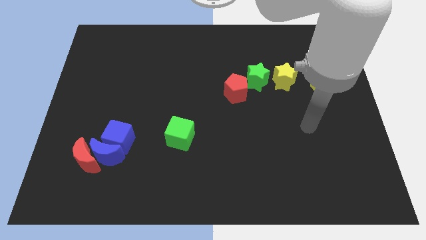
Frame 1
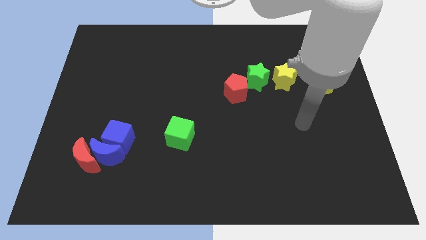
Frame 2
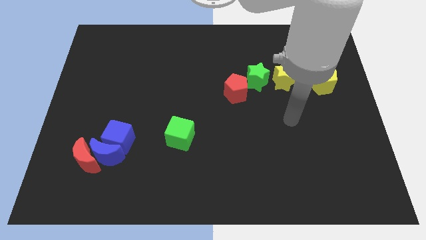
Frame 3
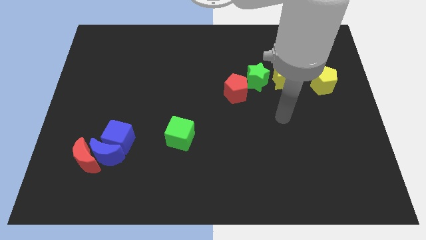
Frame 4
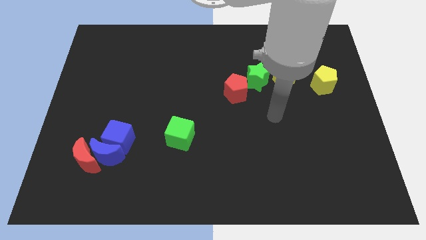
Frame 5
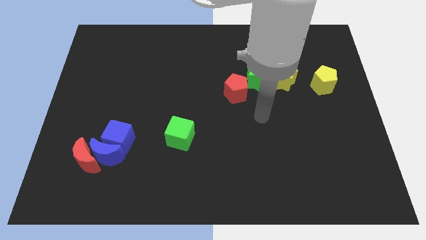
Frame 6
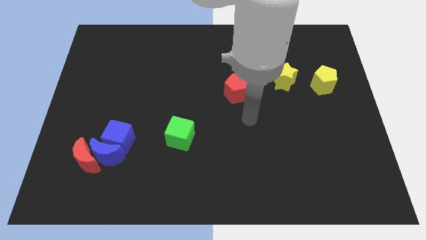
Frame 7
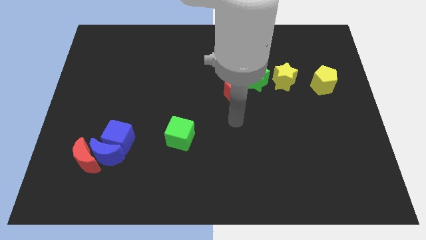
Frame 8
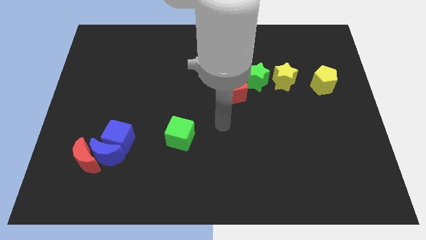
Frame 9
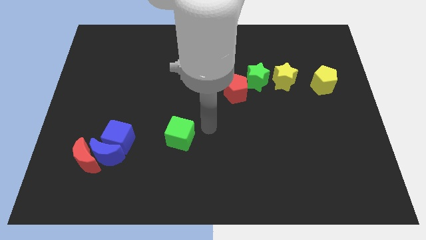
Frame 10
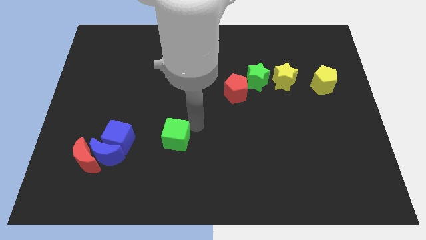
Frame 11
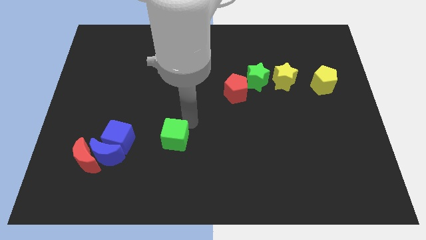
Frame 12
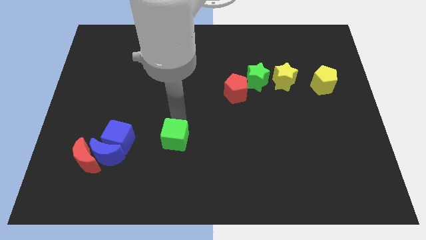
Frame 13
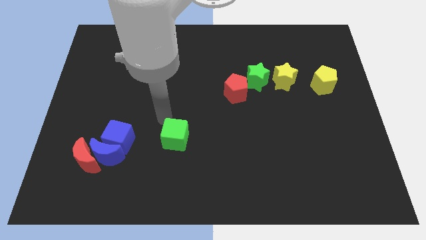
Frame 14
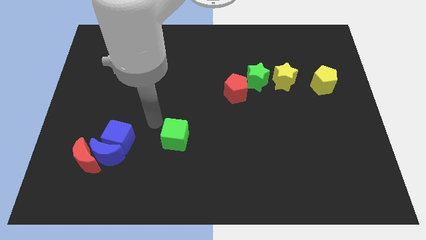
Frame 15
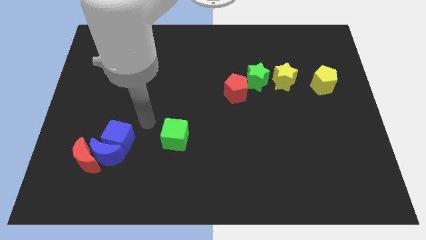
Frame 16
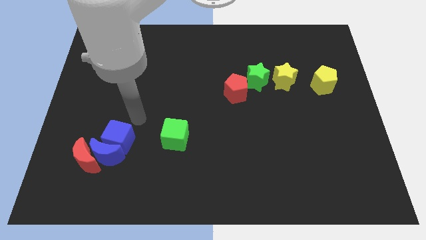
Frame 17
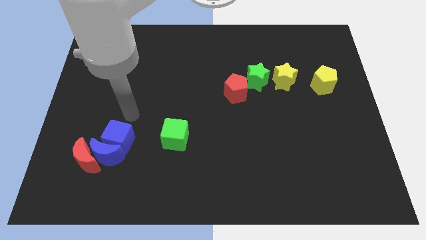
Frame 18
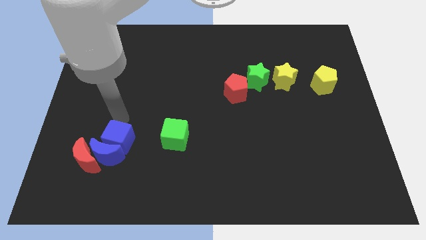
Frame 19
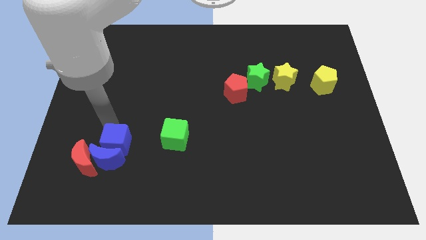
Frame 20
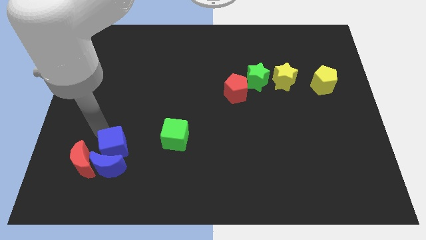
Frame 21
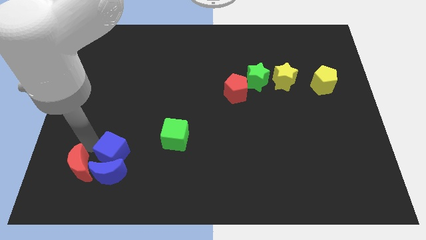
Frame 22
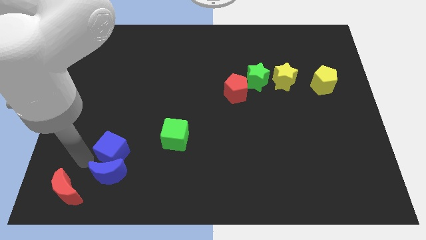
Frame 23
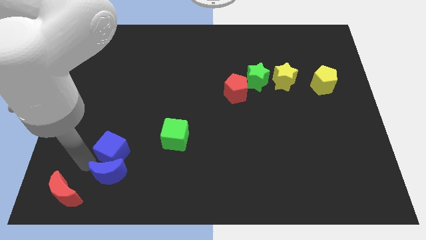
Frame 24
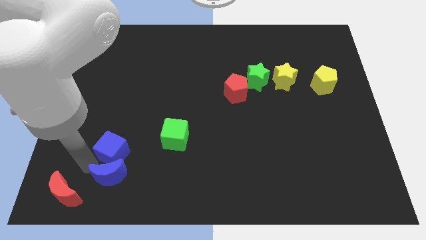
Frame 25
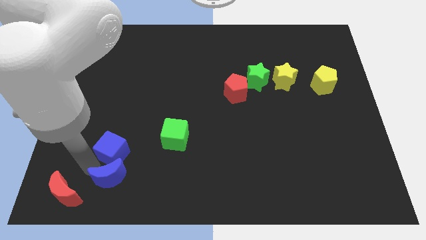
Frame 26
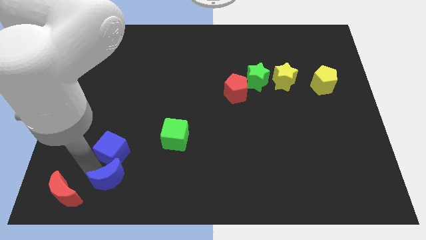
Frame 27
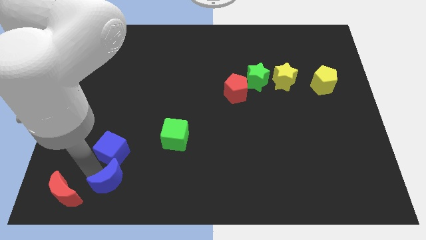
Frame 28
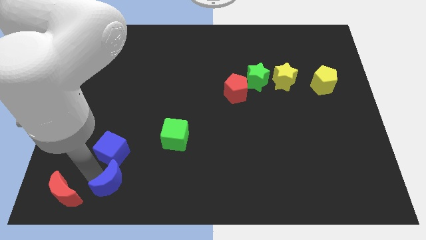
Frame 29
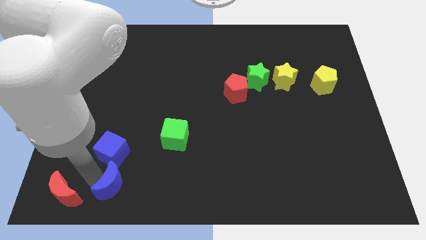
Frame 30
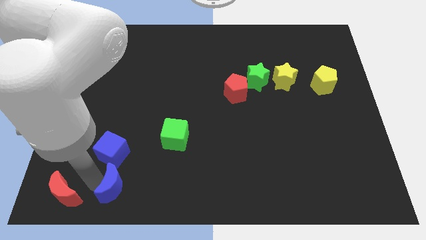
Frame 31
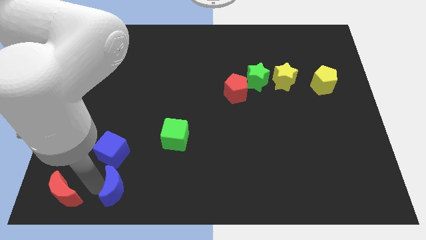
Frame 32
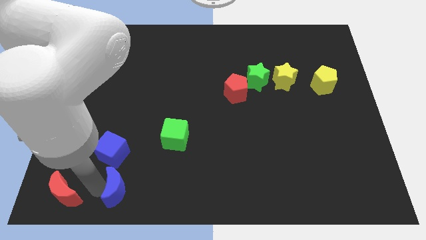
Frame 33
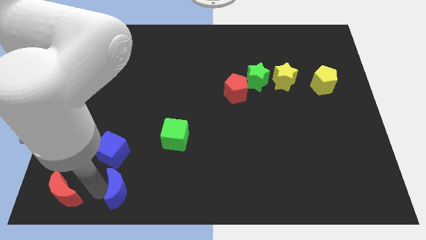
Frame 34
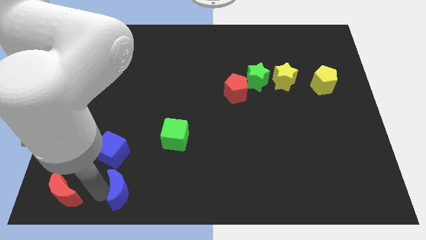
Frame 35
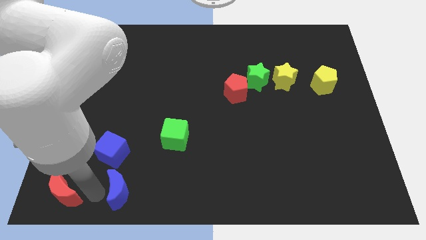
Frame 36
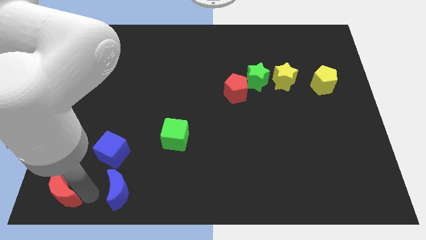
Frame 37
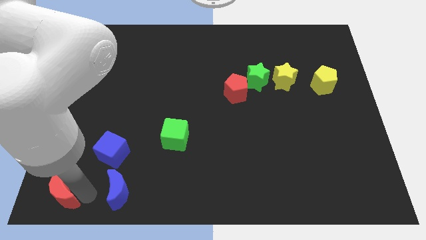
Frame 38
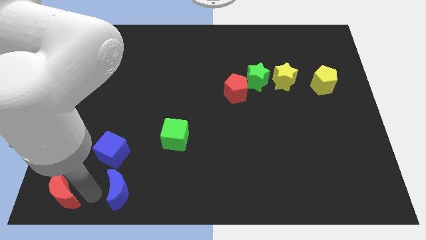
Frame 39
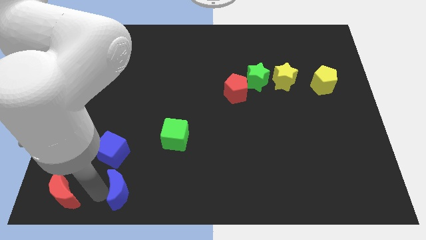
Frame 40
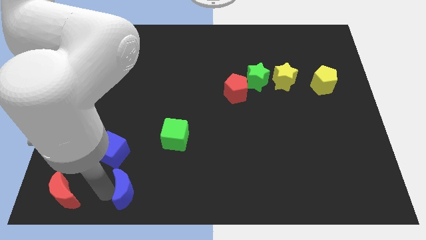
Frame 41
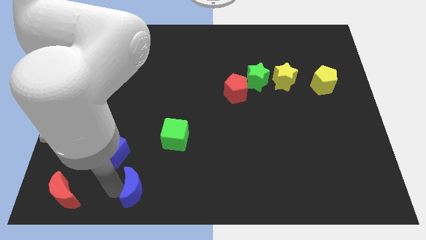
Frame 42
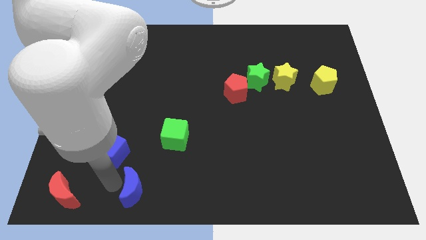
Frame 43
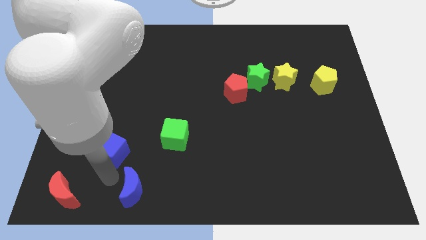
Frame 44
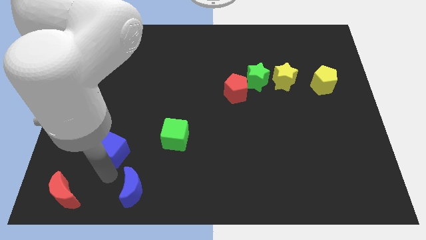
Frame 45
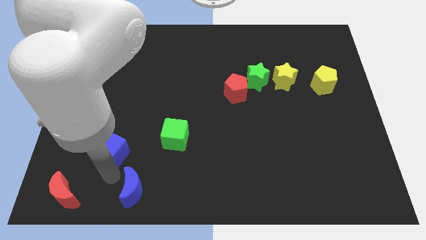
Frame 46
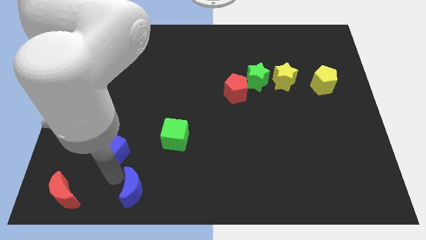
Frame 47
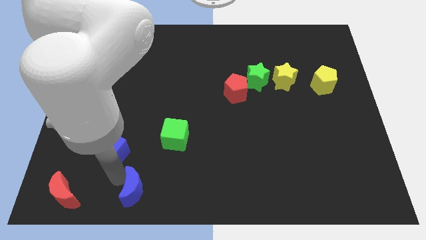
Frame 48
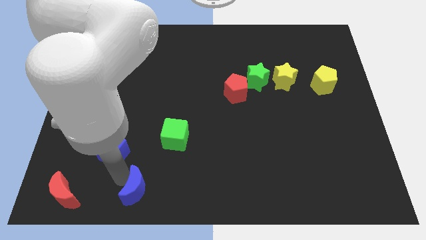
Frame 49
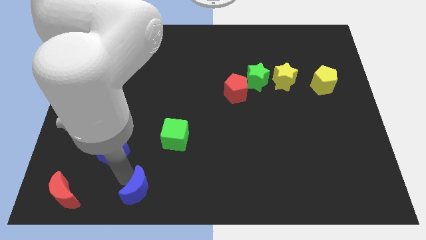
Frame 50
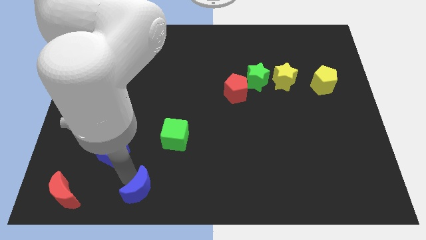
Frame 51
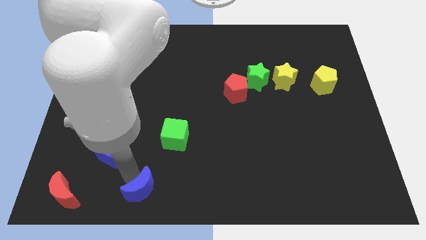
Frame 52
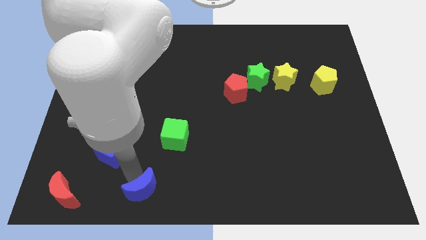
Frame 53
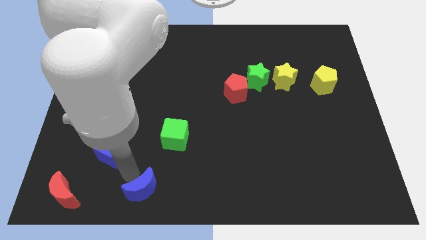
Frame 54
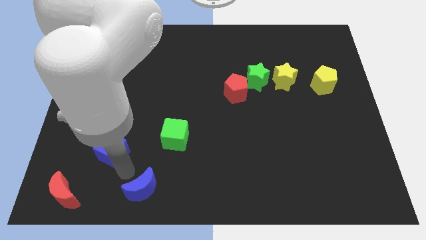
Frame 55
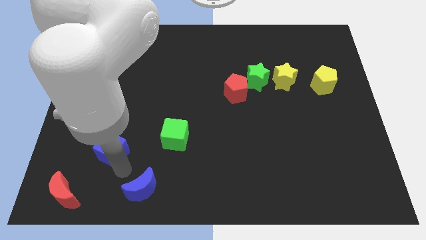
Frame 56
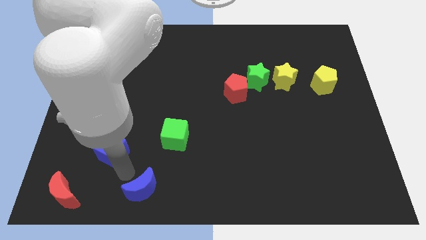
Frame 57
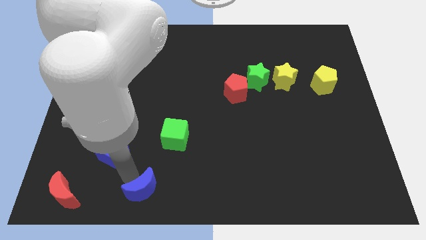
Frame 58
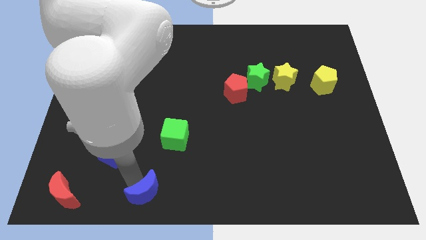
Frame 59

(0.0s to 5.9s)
put the blue moon to the bottom side

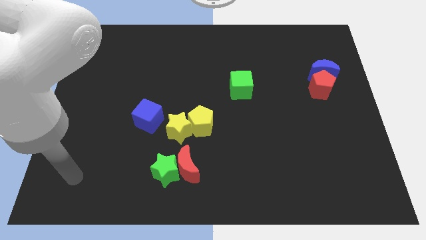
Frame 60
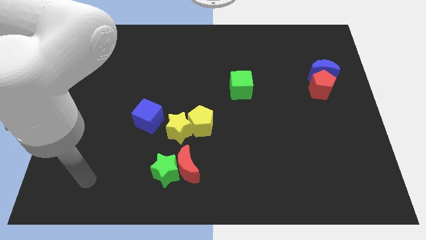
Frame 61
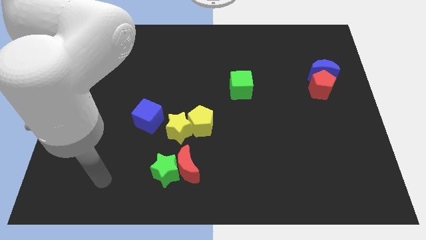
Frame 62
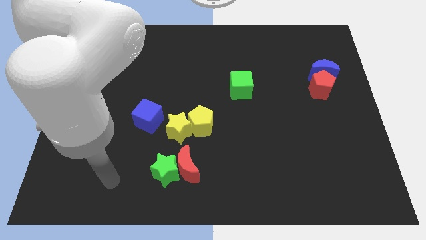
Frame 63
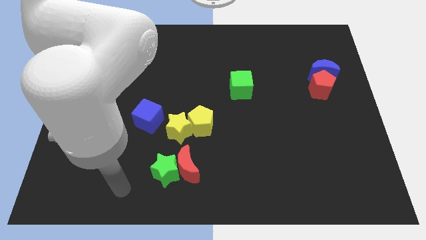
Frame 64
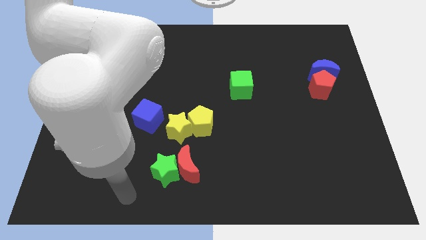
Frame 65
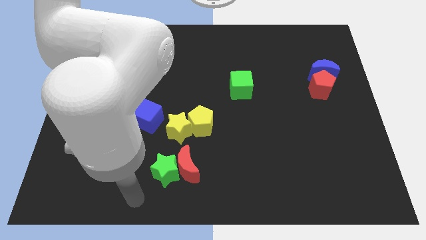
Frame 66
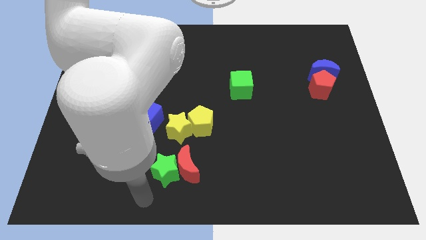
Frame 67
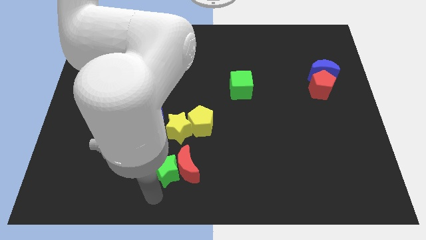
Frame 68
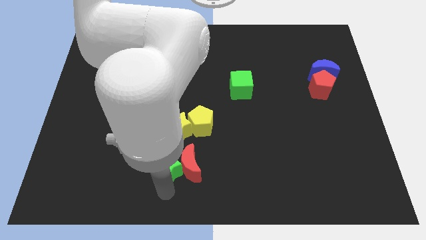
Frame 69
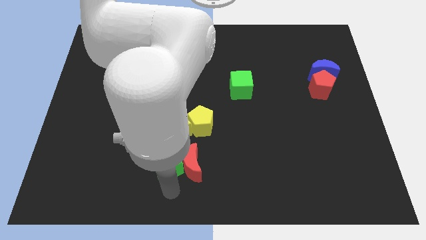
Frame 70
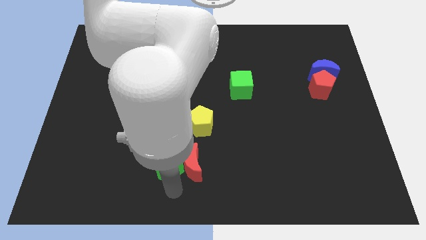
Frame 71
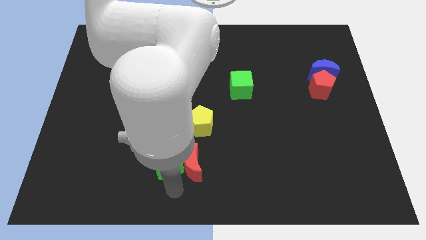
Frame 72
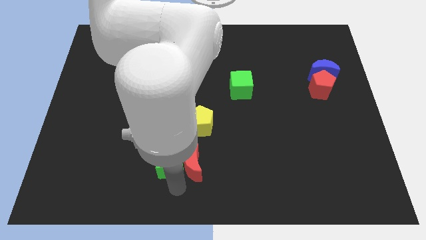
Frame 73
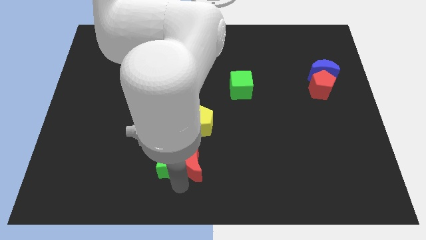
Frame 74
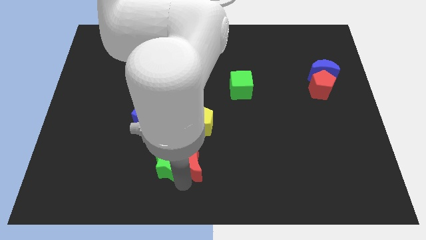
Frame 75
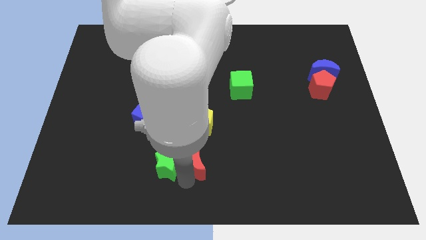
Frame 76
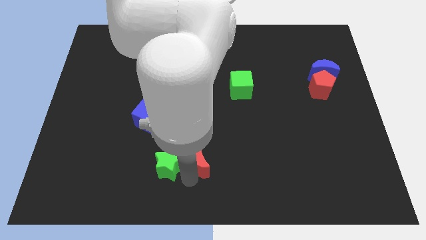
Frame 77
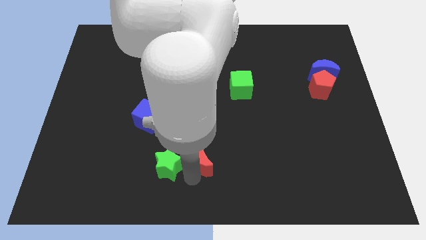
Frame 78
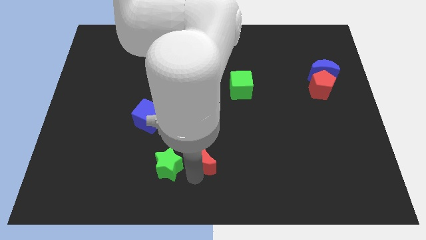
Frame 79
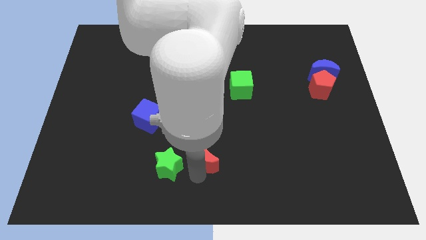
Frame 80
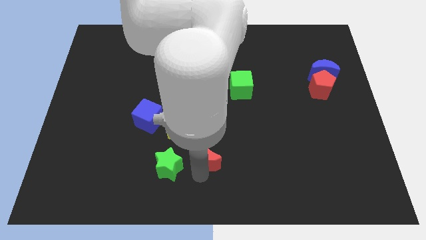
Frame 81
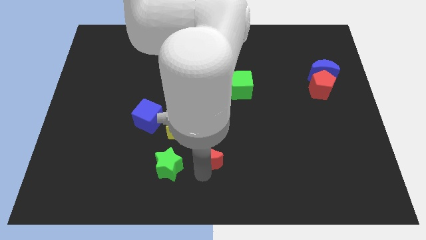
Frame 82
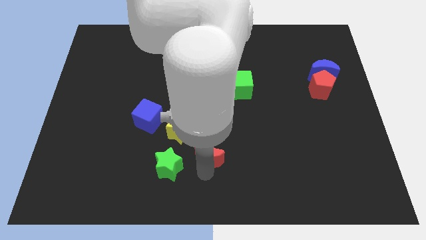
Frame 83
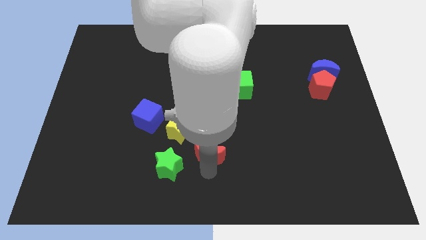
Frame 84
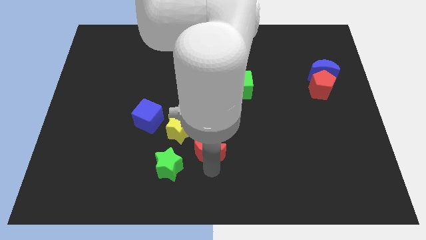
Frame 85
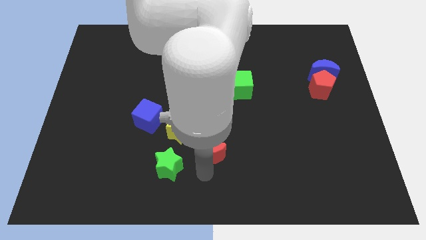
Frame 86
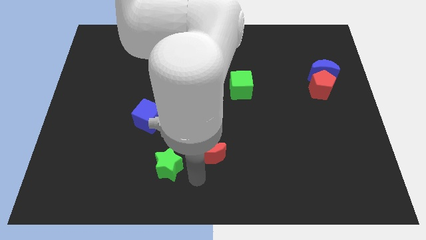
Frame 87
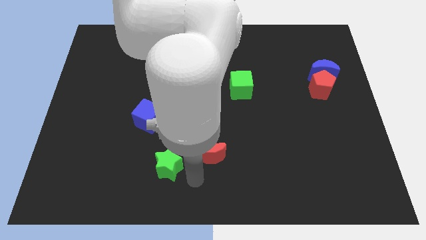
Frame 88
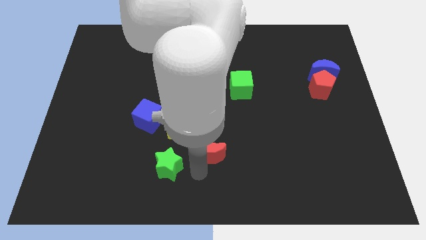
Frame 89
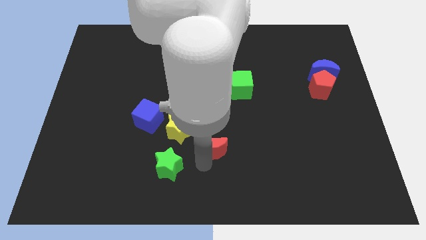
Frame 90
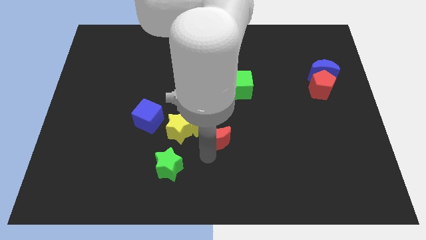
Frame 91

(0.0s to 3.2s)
put the red moon to the middle of the board
